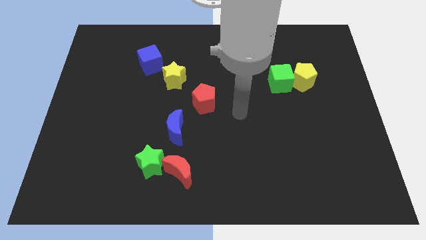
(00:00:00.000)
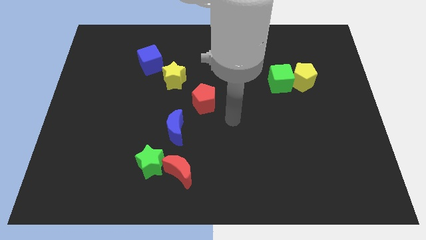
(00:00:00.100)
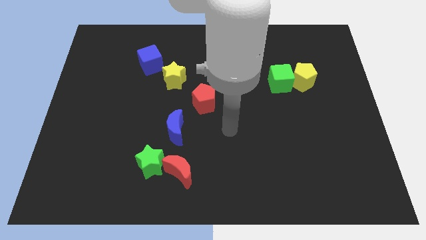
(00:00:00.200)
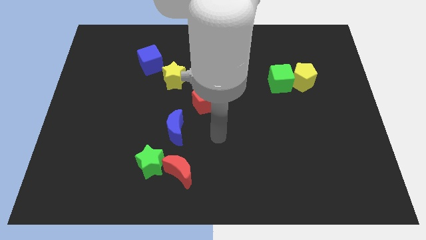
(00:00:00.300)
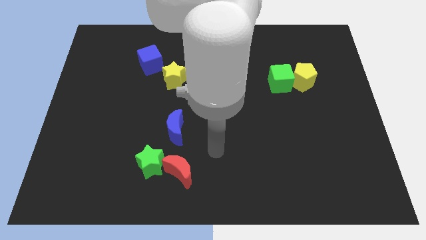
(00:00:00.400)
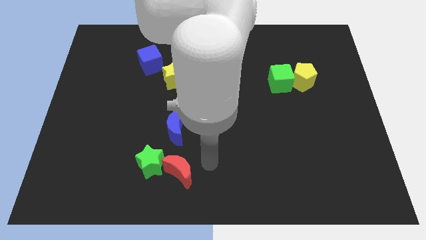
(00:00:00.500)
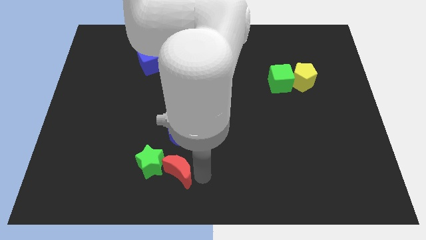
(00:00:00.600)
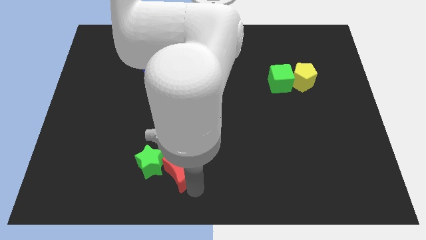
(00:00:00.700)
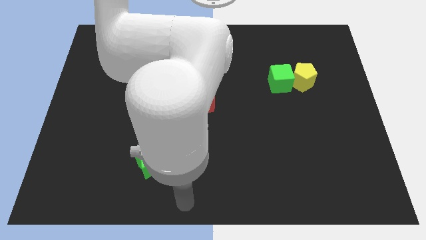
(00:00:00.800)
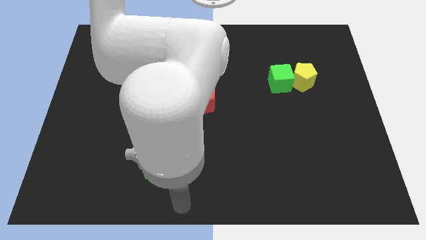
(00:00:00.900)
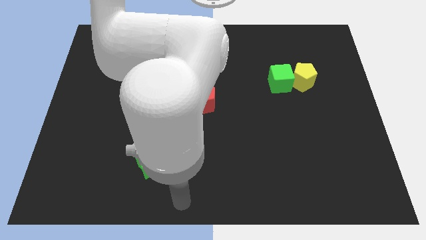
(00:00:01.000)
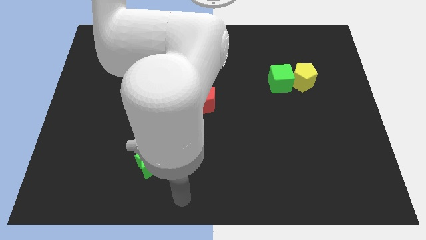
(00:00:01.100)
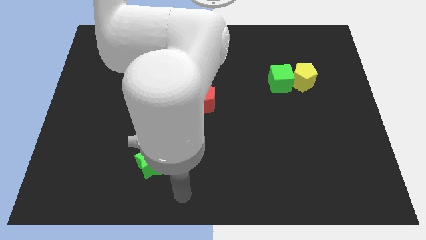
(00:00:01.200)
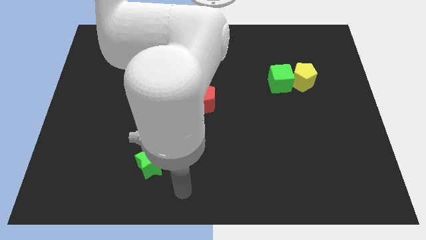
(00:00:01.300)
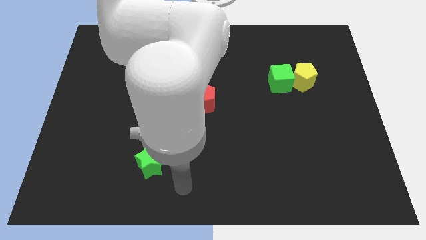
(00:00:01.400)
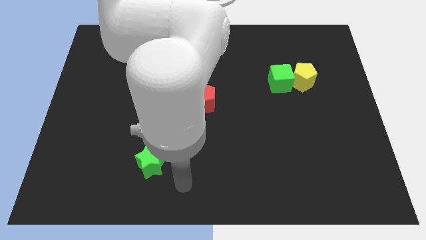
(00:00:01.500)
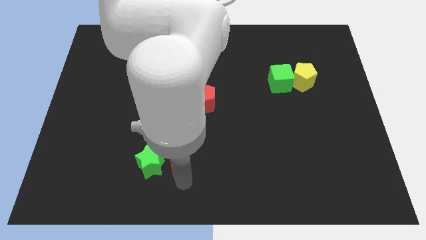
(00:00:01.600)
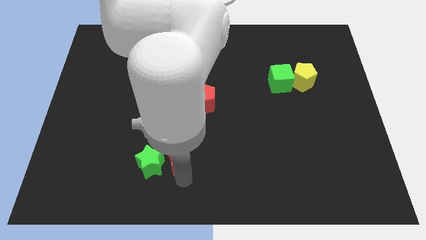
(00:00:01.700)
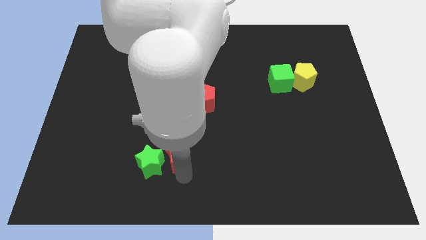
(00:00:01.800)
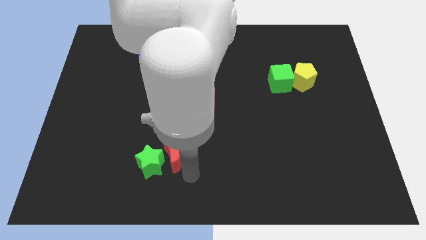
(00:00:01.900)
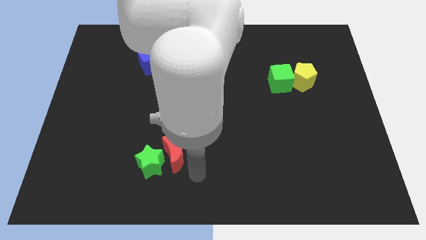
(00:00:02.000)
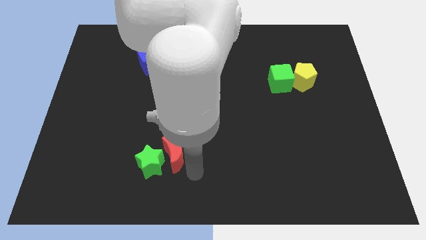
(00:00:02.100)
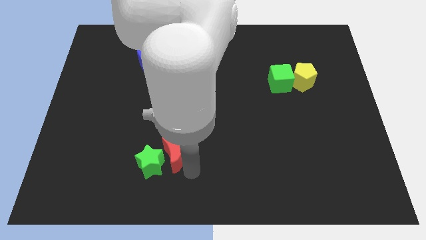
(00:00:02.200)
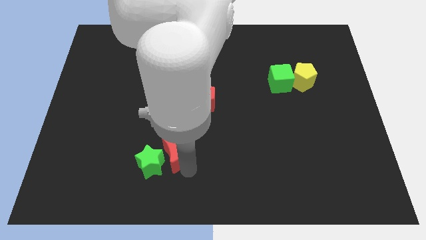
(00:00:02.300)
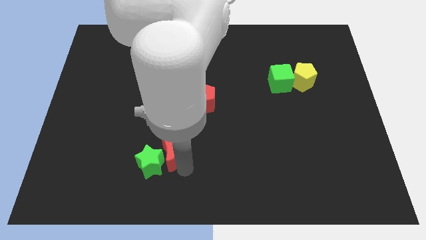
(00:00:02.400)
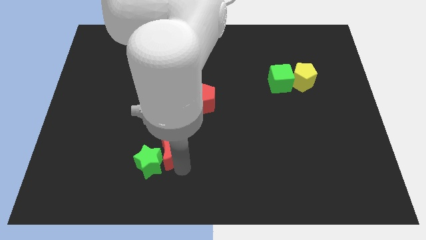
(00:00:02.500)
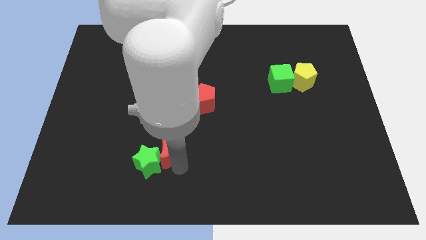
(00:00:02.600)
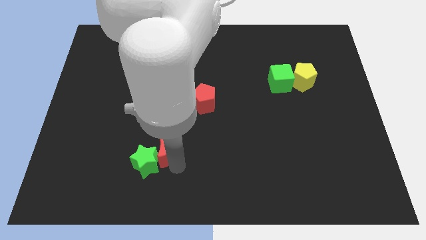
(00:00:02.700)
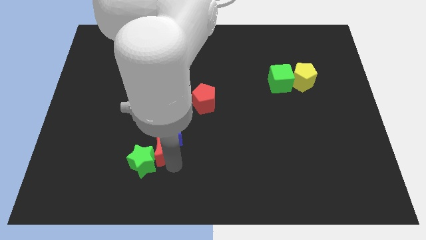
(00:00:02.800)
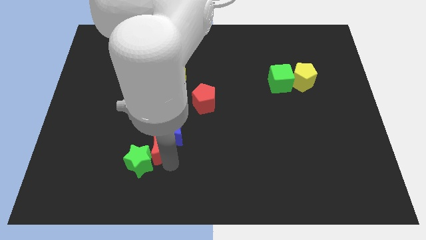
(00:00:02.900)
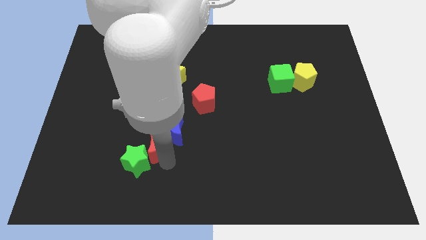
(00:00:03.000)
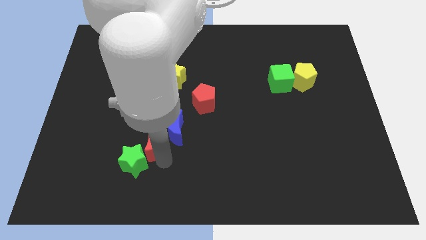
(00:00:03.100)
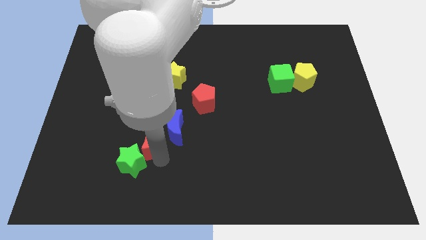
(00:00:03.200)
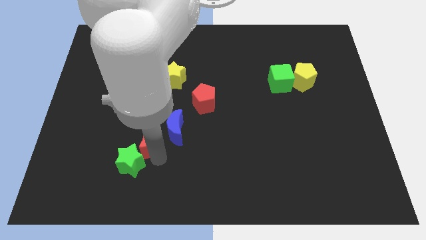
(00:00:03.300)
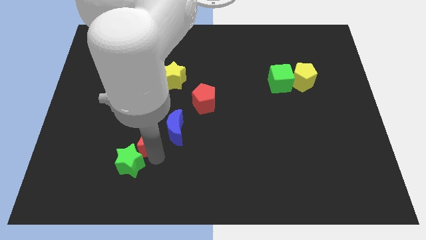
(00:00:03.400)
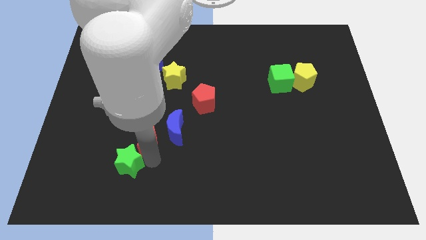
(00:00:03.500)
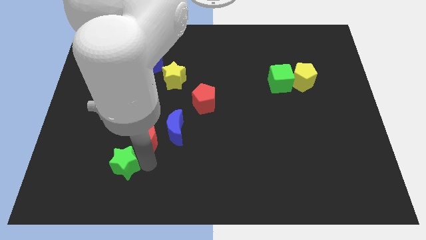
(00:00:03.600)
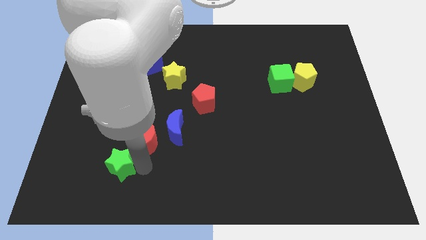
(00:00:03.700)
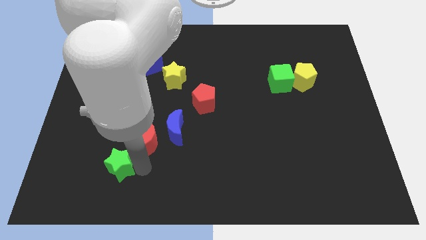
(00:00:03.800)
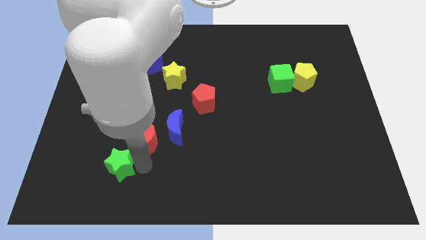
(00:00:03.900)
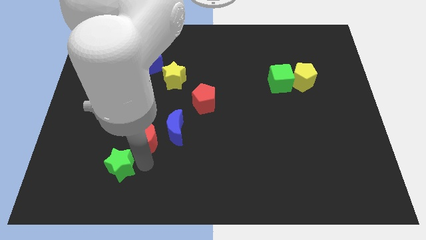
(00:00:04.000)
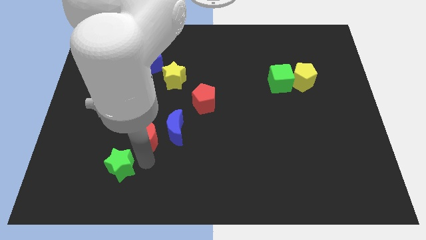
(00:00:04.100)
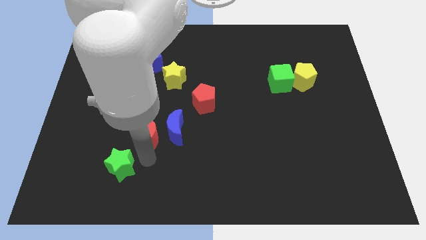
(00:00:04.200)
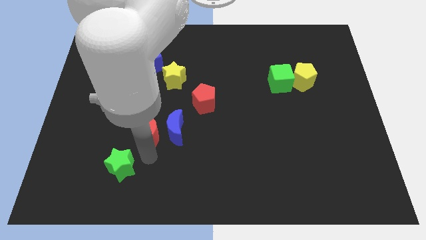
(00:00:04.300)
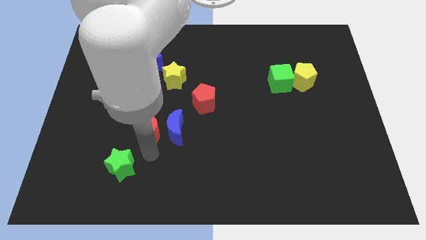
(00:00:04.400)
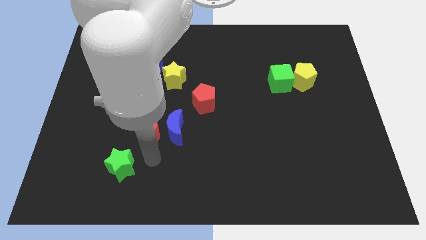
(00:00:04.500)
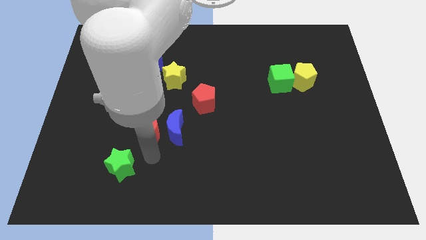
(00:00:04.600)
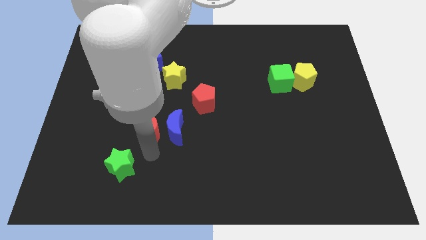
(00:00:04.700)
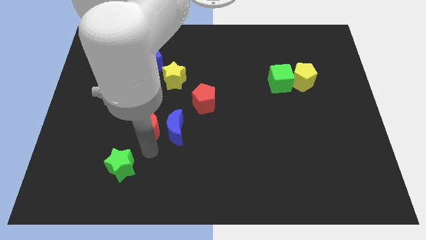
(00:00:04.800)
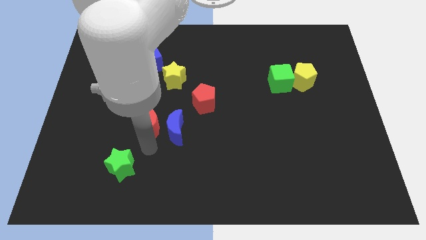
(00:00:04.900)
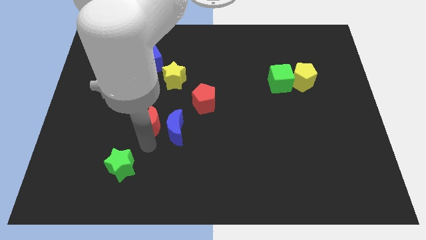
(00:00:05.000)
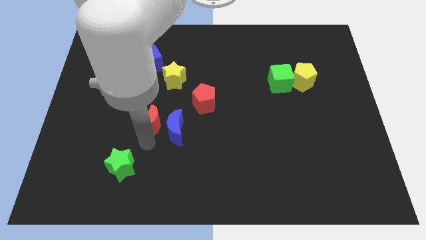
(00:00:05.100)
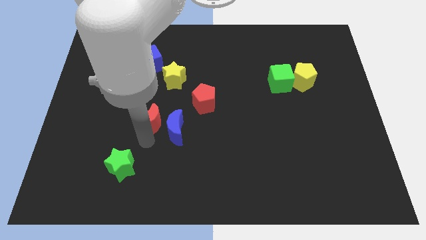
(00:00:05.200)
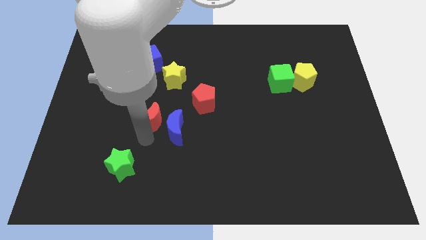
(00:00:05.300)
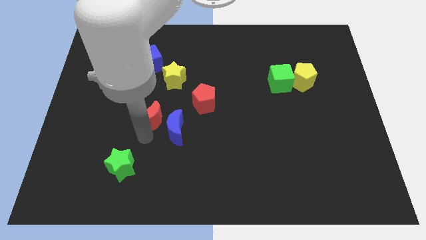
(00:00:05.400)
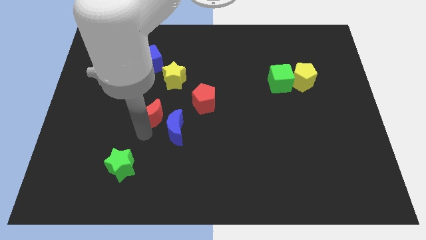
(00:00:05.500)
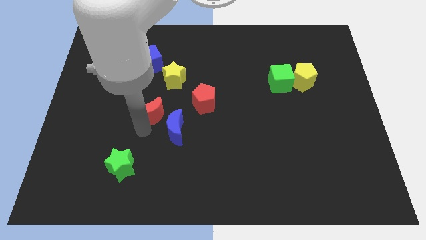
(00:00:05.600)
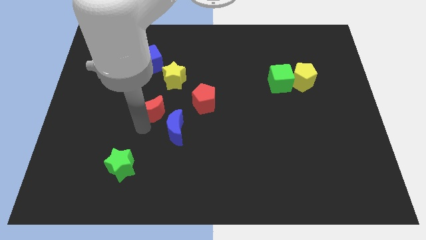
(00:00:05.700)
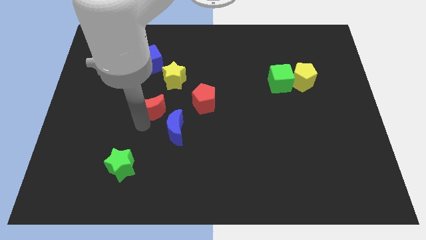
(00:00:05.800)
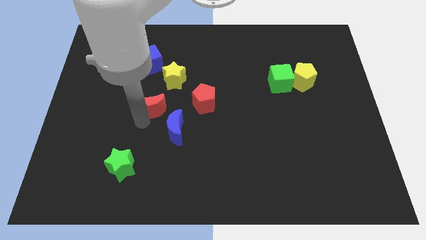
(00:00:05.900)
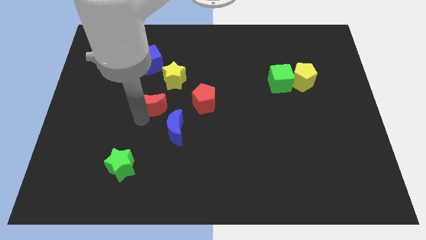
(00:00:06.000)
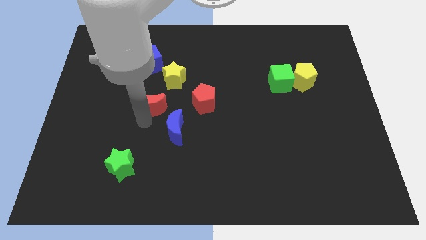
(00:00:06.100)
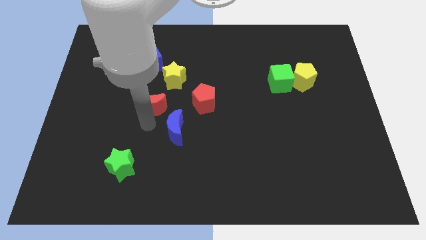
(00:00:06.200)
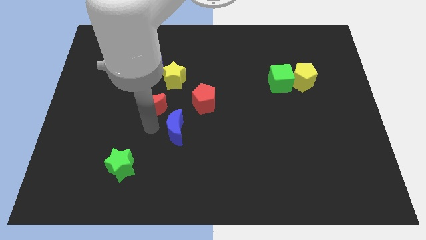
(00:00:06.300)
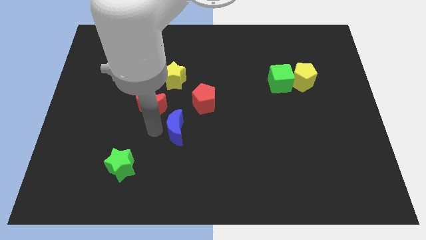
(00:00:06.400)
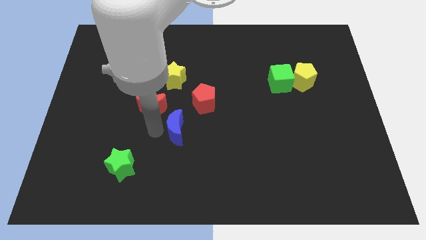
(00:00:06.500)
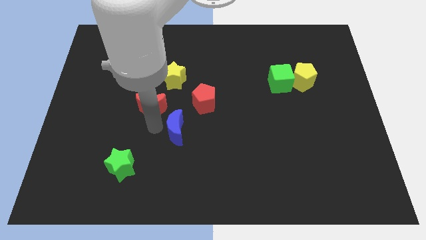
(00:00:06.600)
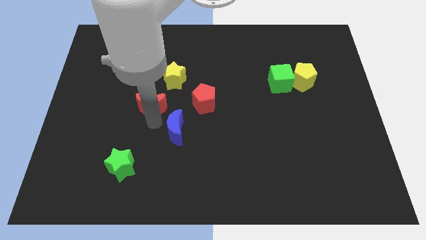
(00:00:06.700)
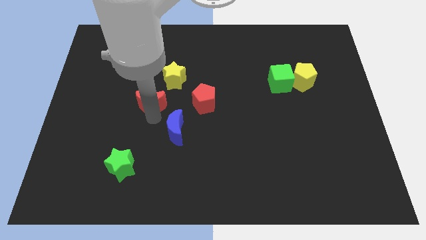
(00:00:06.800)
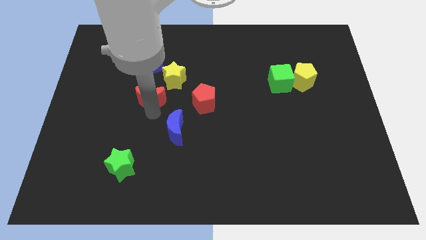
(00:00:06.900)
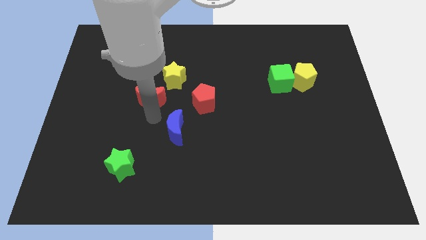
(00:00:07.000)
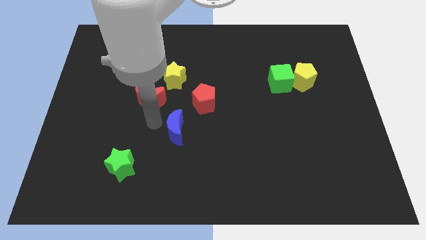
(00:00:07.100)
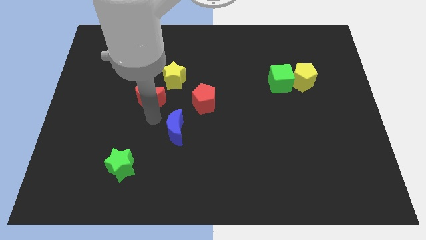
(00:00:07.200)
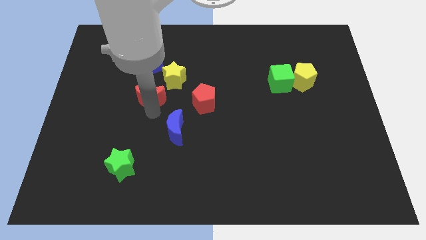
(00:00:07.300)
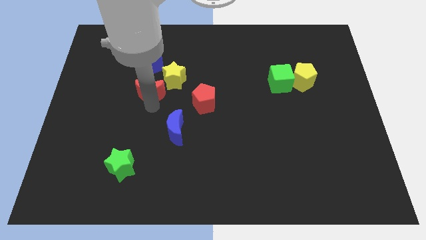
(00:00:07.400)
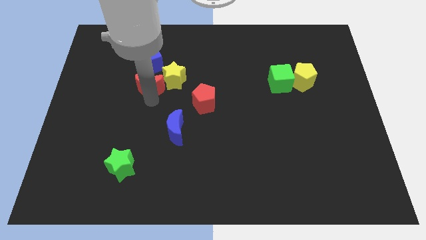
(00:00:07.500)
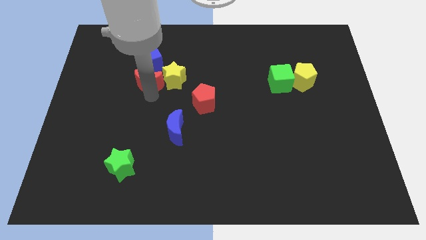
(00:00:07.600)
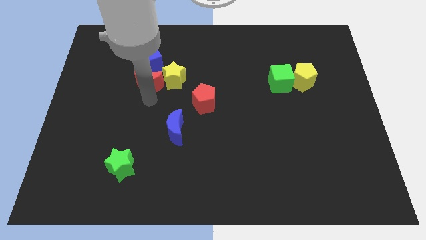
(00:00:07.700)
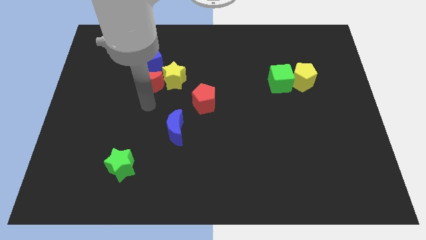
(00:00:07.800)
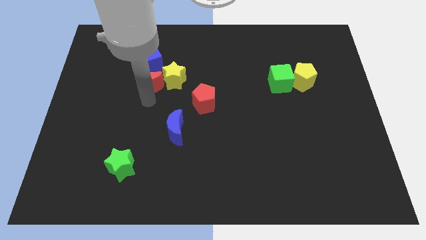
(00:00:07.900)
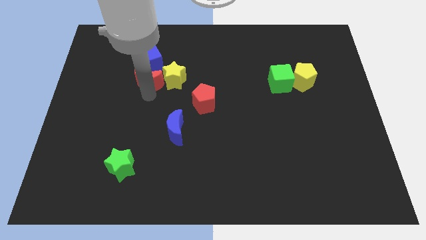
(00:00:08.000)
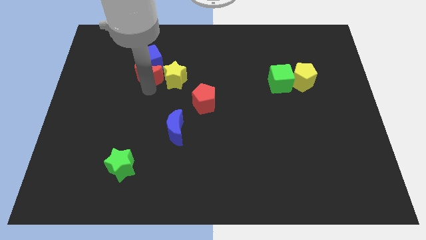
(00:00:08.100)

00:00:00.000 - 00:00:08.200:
put the red moon next to the blue cube
